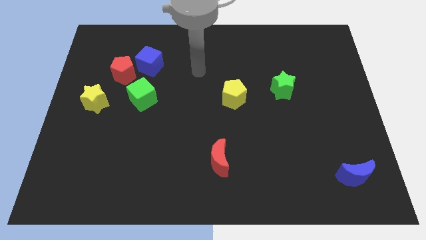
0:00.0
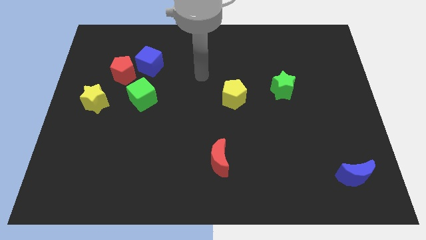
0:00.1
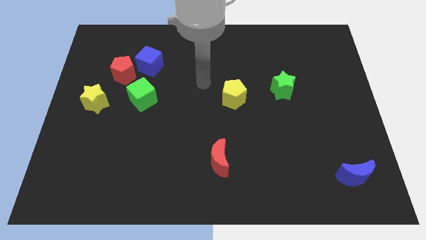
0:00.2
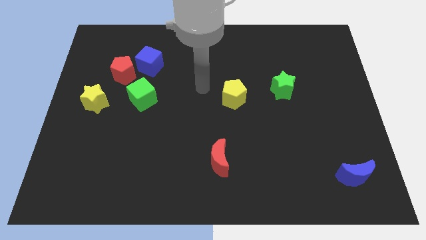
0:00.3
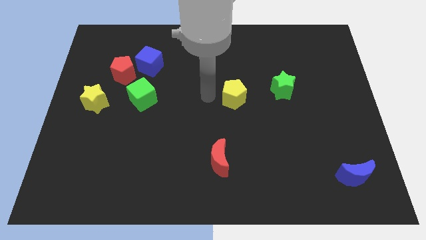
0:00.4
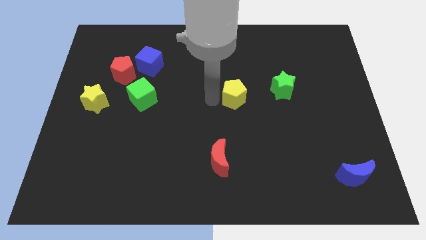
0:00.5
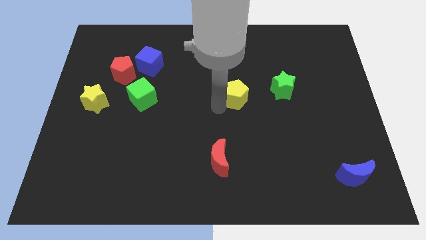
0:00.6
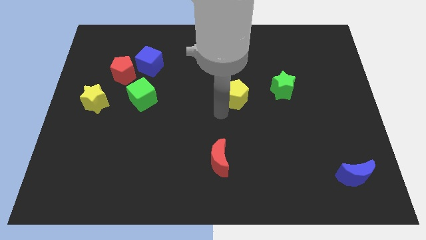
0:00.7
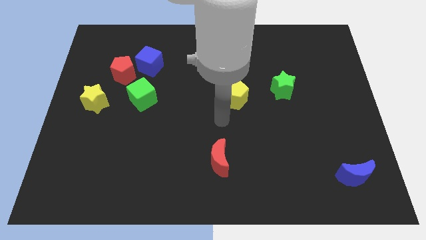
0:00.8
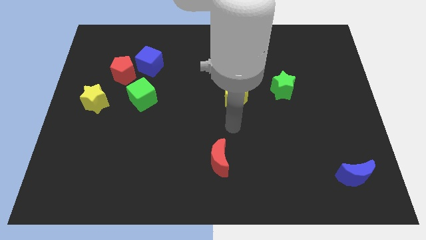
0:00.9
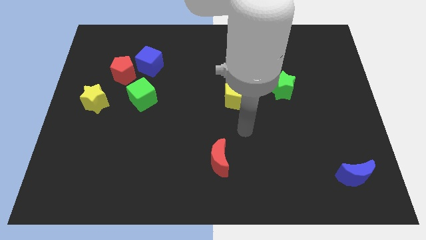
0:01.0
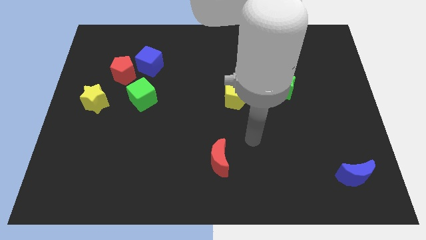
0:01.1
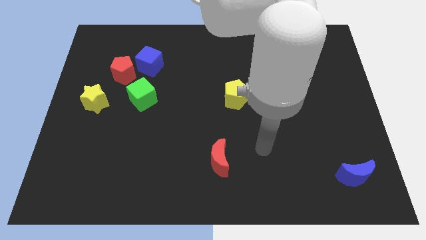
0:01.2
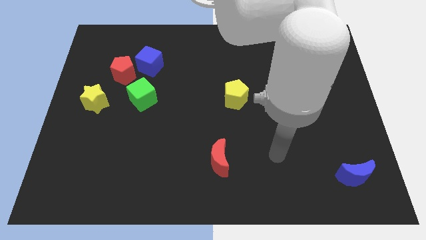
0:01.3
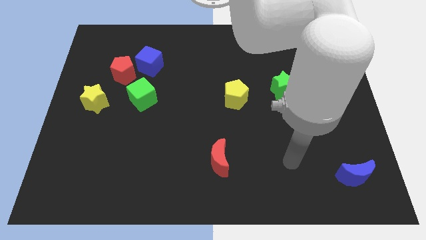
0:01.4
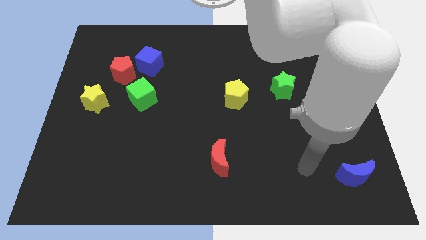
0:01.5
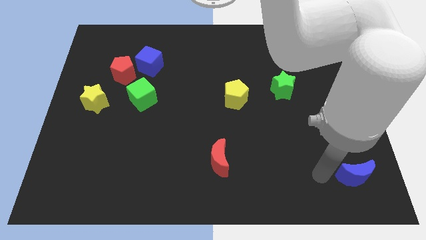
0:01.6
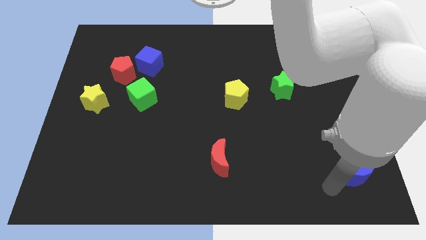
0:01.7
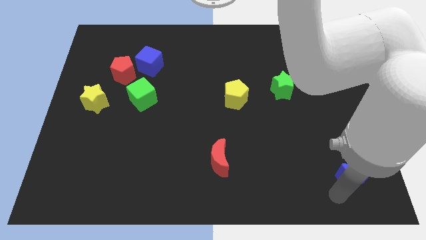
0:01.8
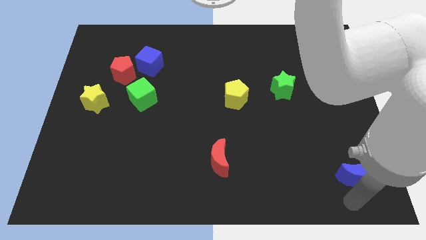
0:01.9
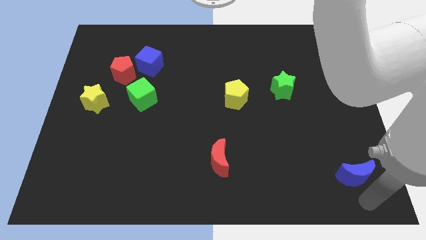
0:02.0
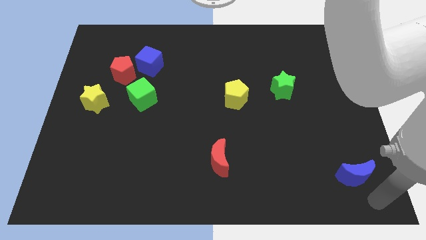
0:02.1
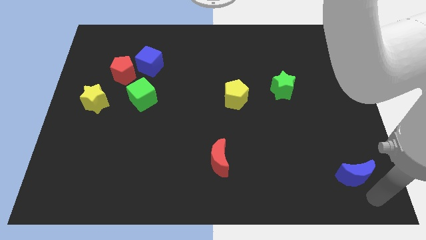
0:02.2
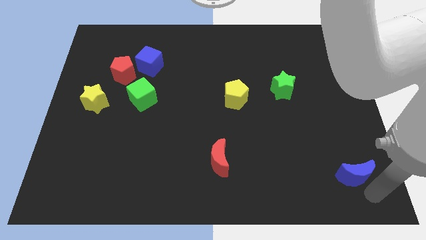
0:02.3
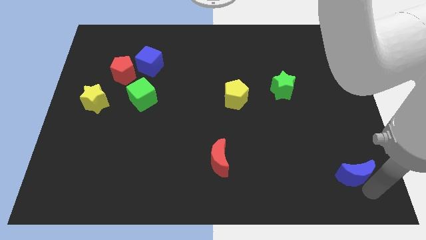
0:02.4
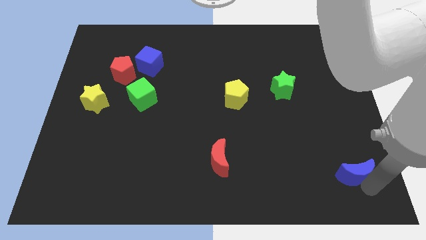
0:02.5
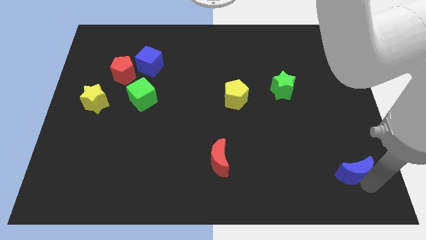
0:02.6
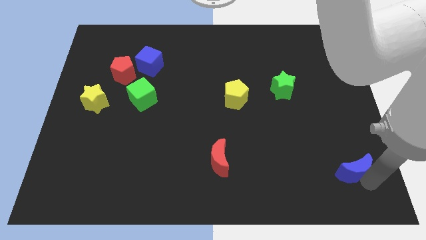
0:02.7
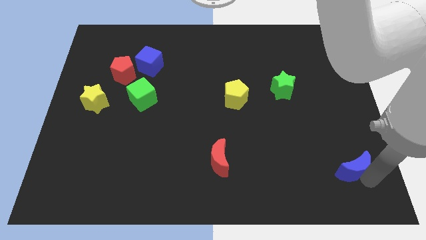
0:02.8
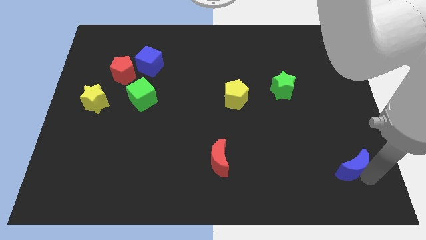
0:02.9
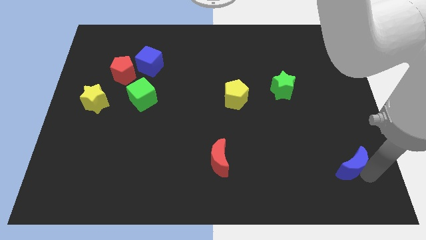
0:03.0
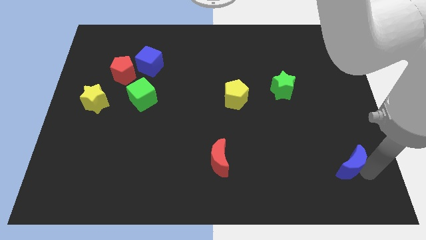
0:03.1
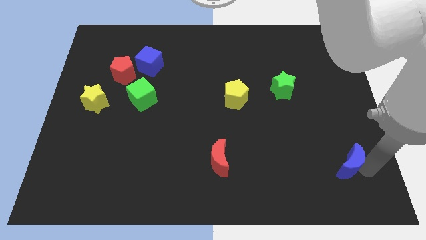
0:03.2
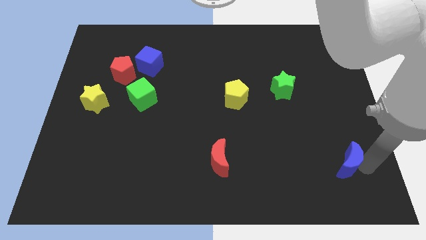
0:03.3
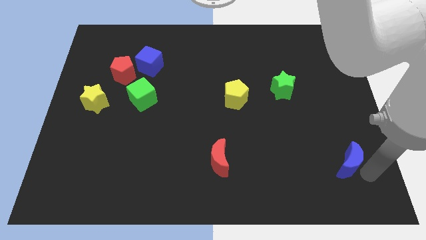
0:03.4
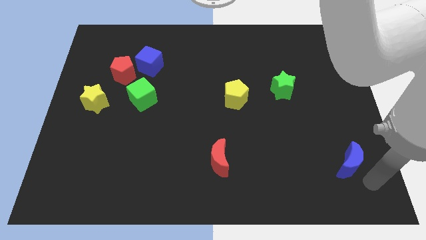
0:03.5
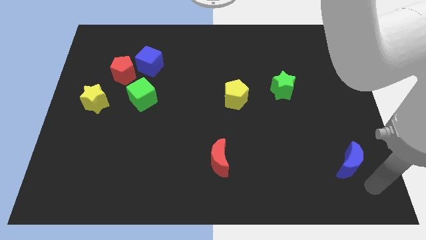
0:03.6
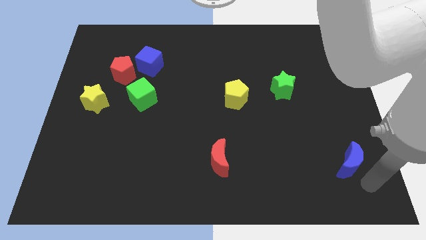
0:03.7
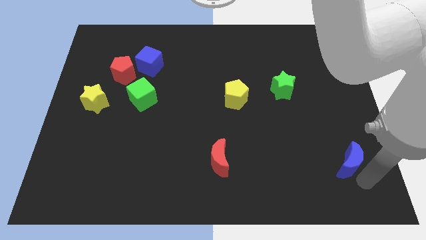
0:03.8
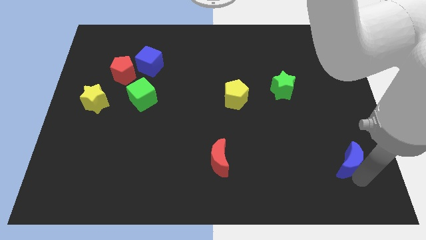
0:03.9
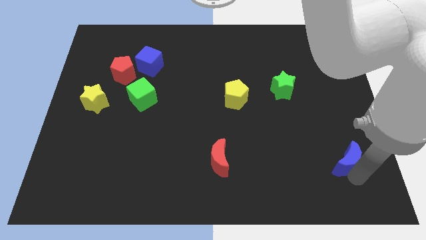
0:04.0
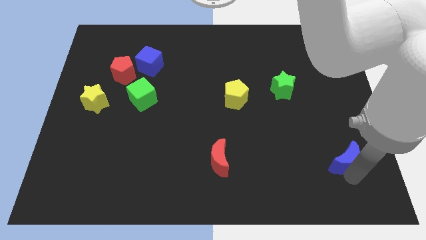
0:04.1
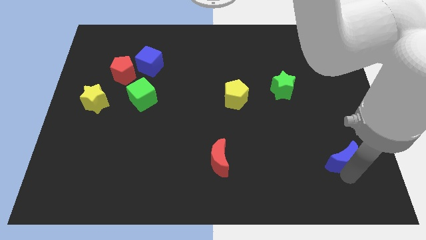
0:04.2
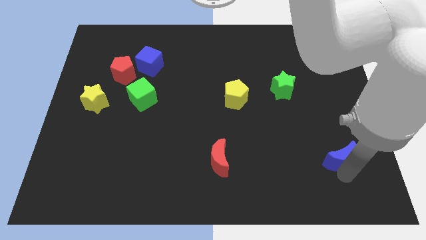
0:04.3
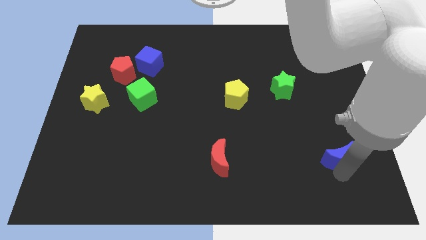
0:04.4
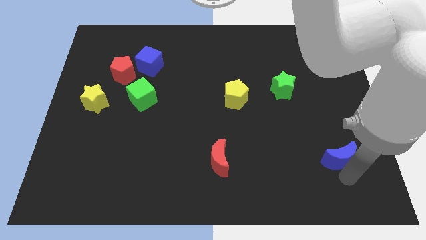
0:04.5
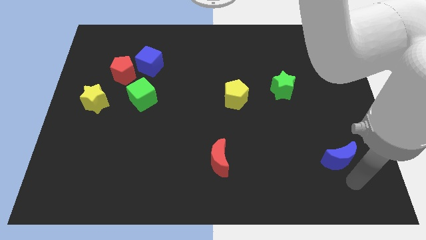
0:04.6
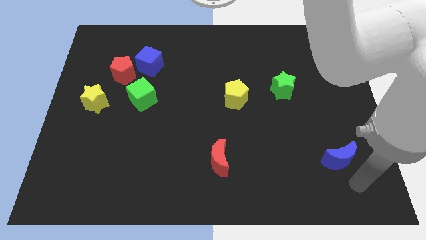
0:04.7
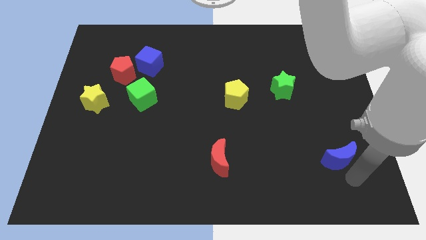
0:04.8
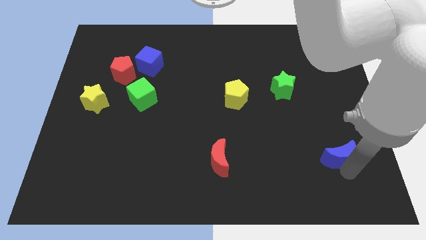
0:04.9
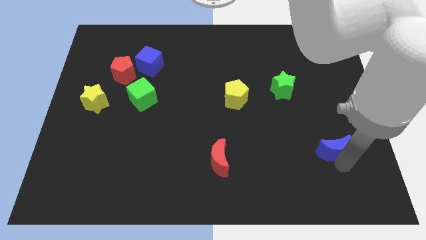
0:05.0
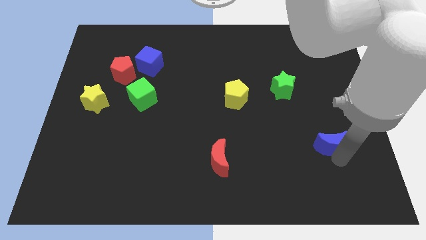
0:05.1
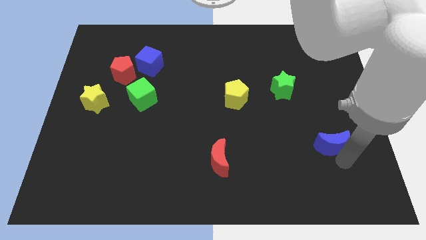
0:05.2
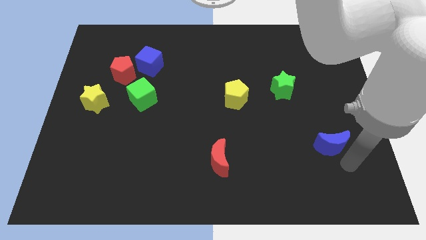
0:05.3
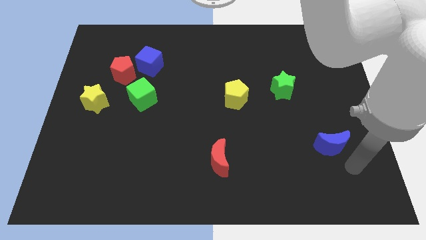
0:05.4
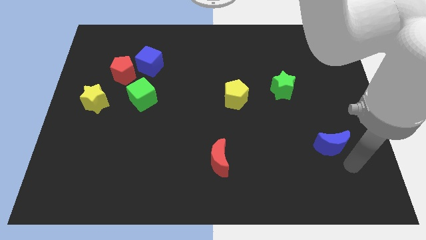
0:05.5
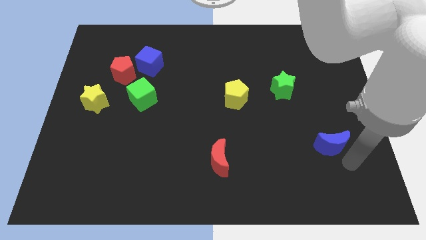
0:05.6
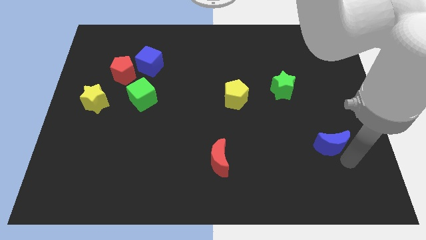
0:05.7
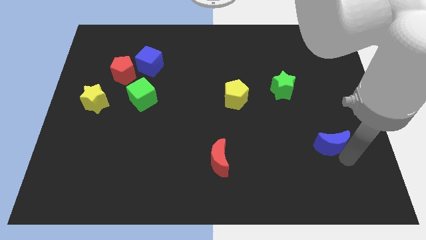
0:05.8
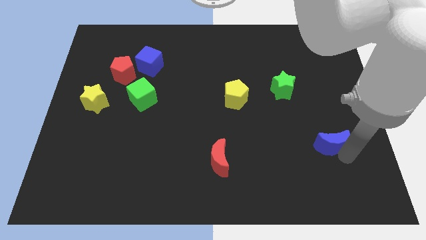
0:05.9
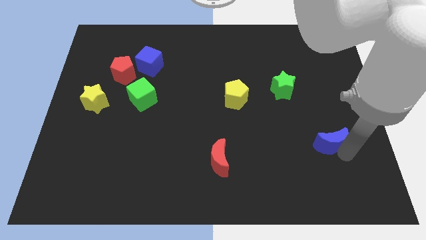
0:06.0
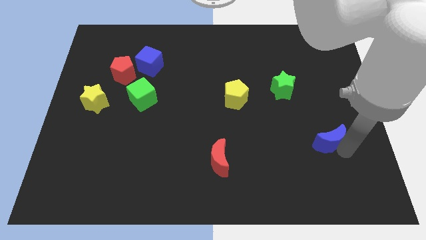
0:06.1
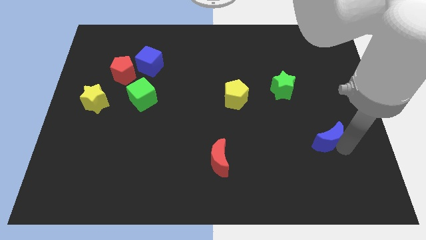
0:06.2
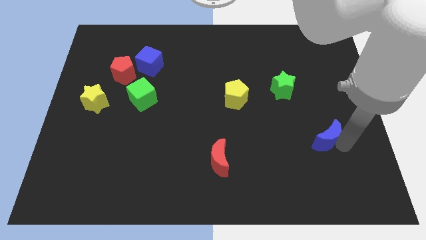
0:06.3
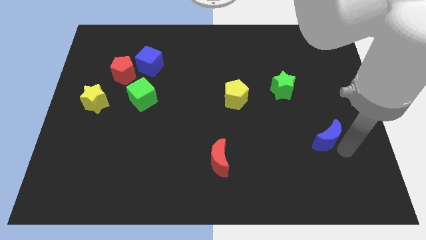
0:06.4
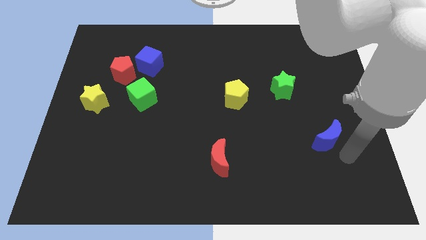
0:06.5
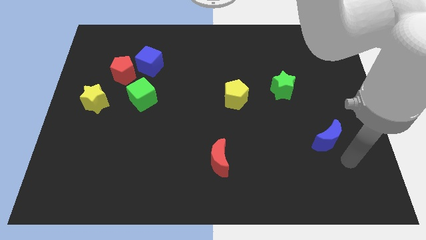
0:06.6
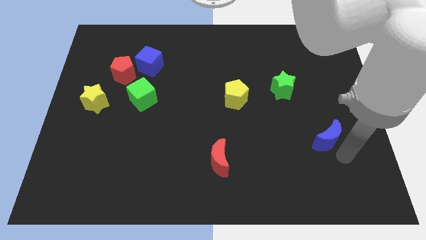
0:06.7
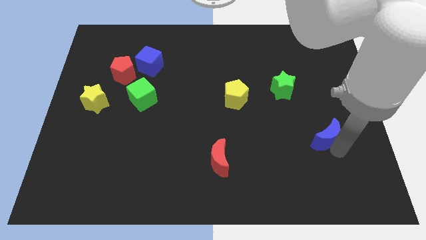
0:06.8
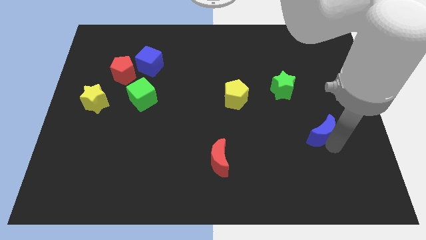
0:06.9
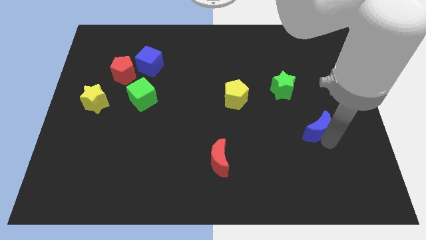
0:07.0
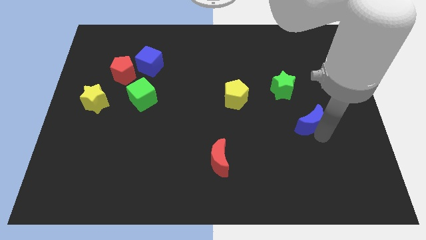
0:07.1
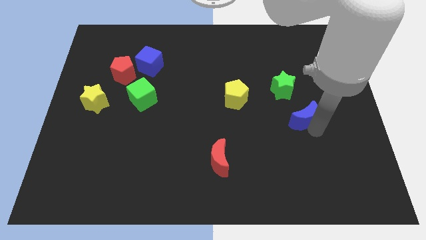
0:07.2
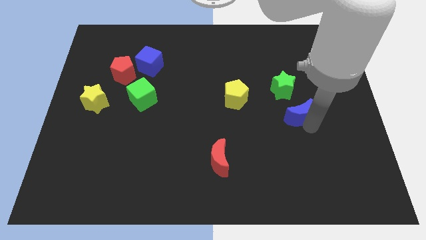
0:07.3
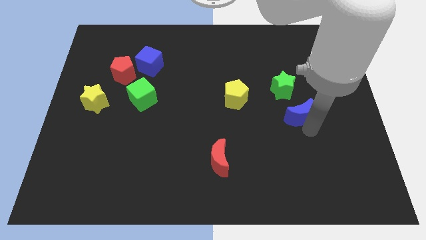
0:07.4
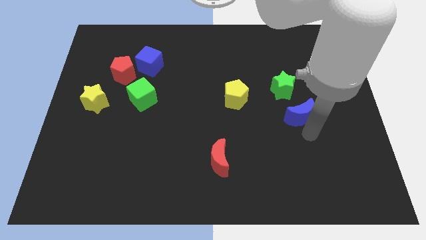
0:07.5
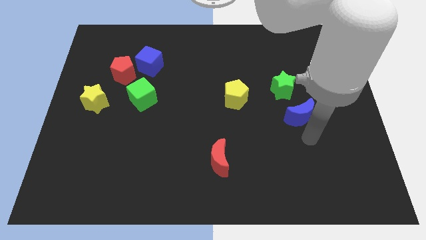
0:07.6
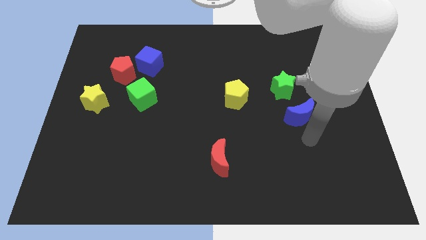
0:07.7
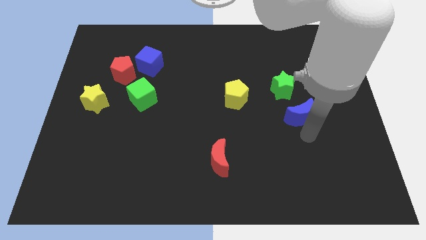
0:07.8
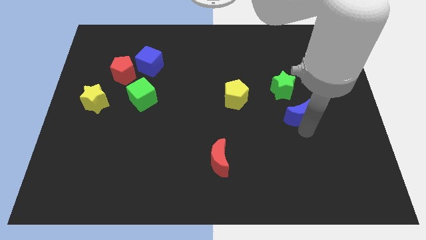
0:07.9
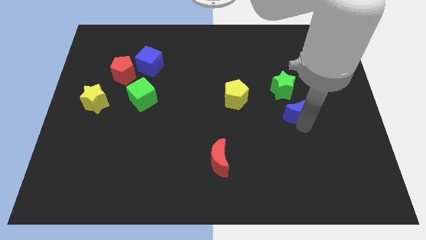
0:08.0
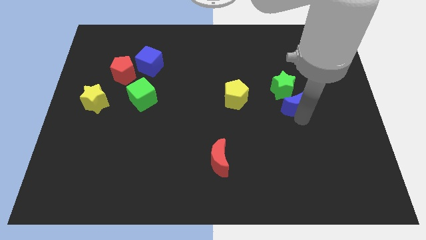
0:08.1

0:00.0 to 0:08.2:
put the blue moon close to the green star
